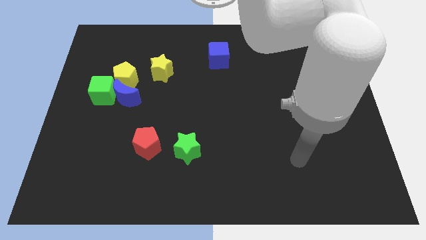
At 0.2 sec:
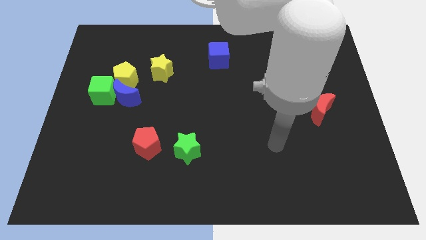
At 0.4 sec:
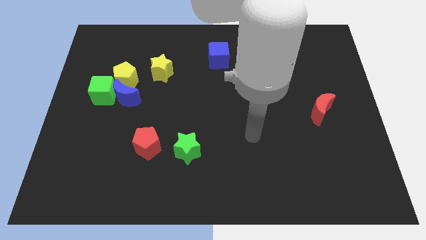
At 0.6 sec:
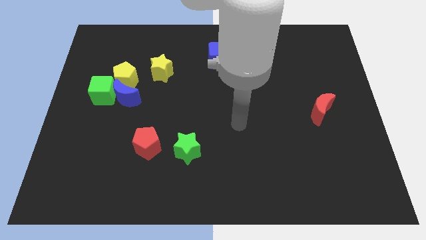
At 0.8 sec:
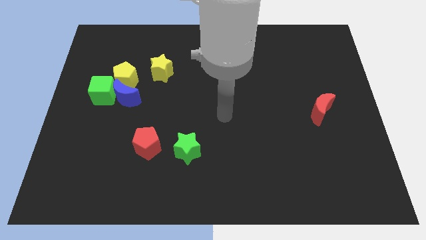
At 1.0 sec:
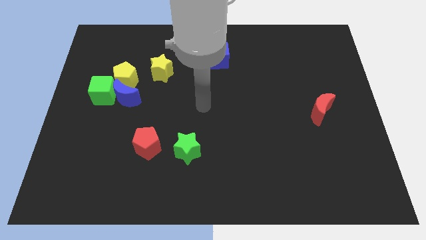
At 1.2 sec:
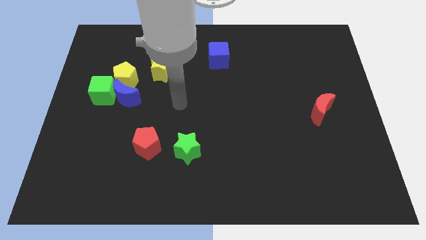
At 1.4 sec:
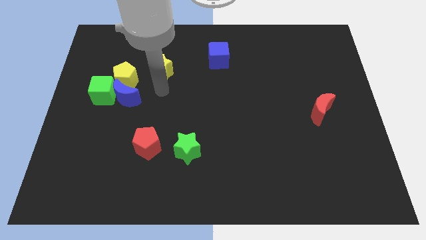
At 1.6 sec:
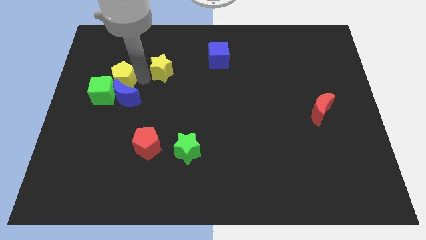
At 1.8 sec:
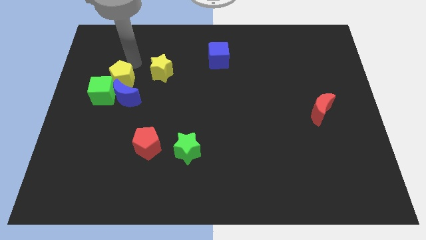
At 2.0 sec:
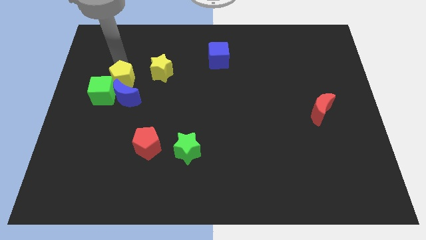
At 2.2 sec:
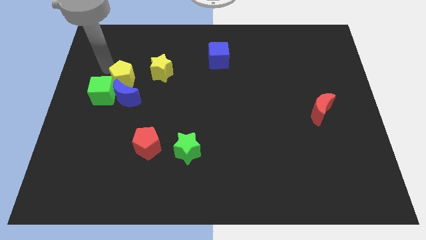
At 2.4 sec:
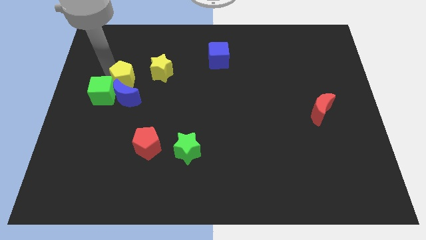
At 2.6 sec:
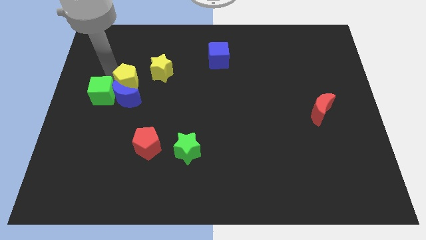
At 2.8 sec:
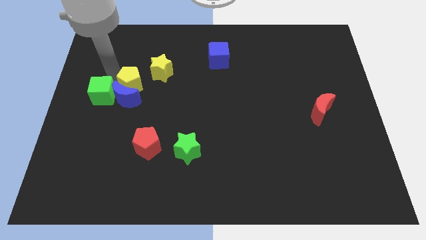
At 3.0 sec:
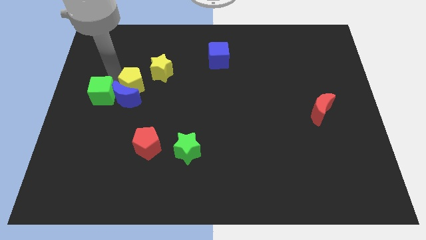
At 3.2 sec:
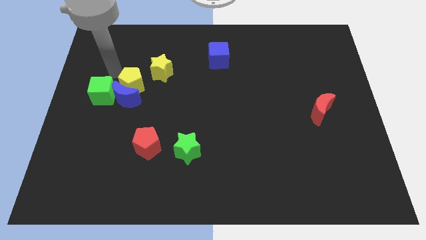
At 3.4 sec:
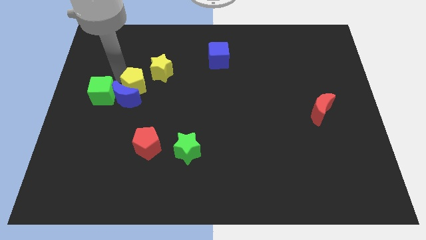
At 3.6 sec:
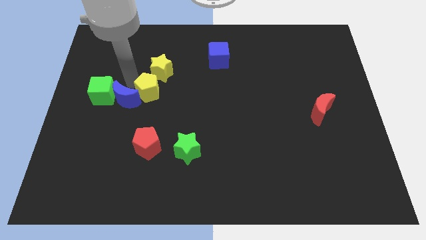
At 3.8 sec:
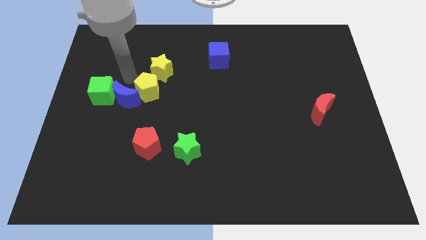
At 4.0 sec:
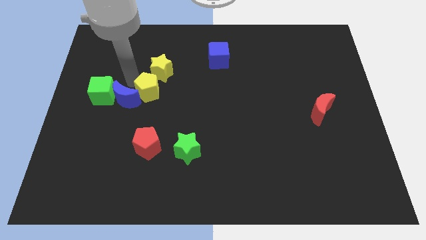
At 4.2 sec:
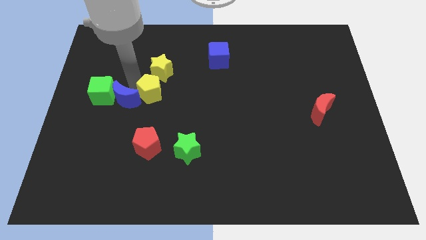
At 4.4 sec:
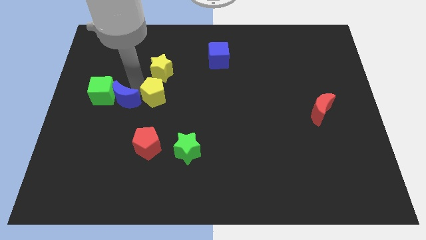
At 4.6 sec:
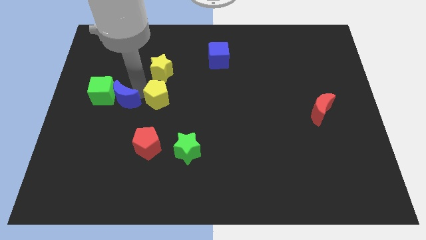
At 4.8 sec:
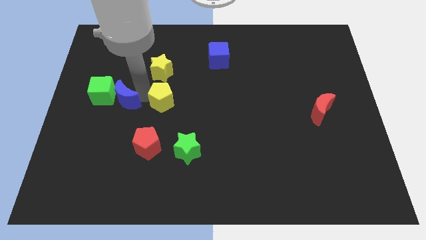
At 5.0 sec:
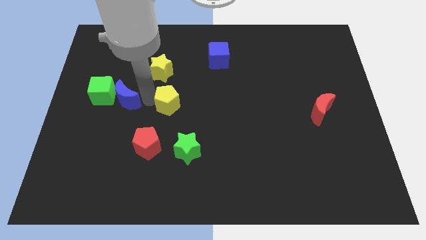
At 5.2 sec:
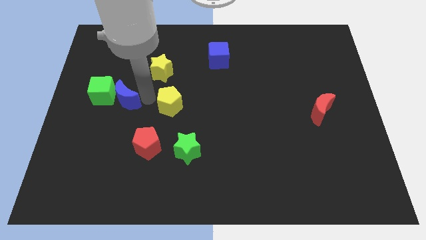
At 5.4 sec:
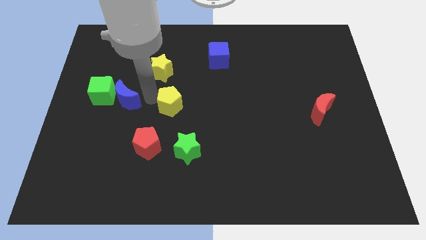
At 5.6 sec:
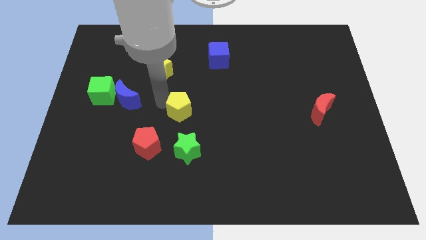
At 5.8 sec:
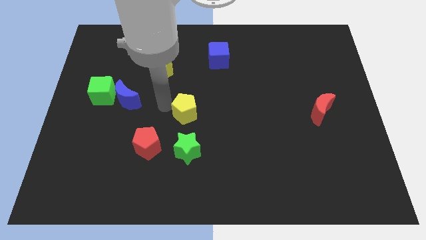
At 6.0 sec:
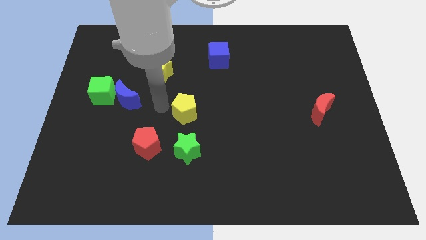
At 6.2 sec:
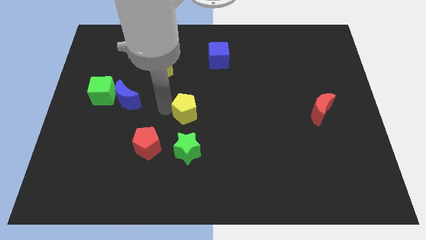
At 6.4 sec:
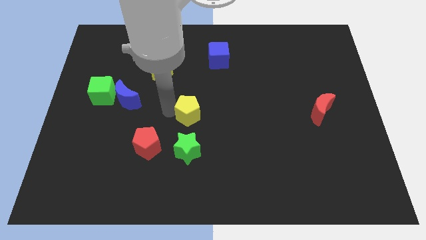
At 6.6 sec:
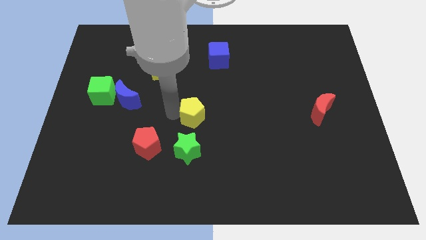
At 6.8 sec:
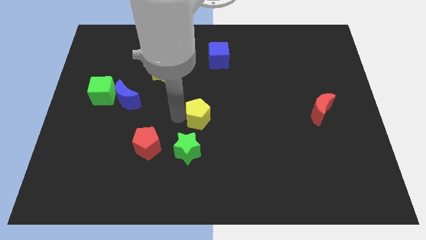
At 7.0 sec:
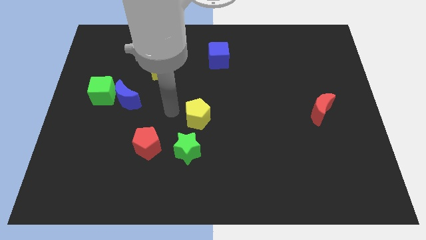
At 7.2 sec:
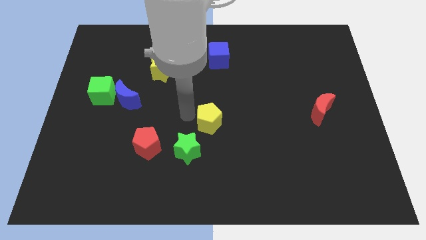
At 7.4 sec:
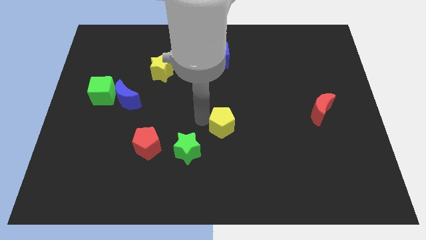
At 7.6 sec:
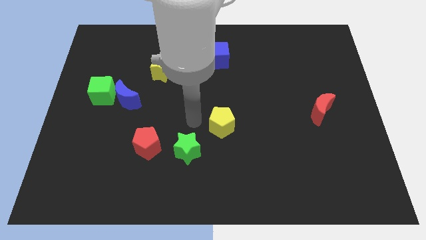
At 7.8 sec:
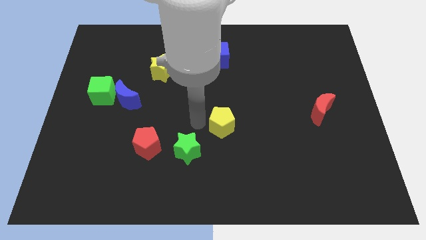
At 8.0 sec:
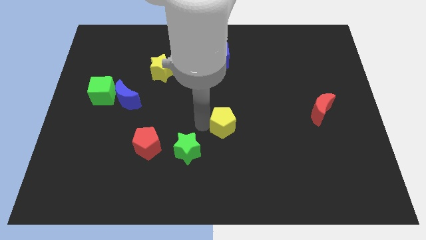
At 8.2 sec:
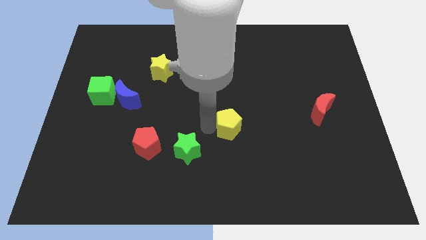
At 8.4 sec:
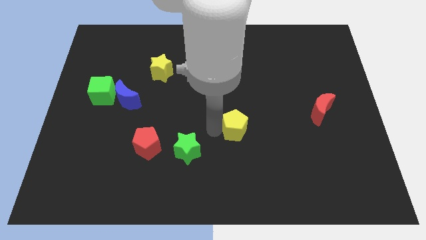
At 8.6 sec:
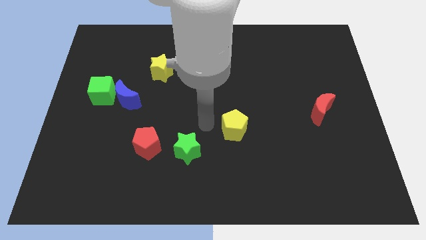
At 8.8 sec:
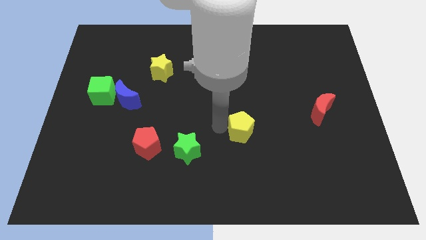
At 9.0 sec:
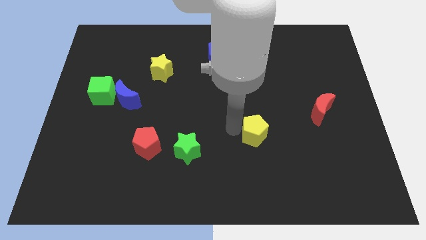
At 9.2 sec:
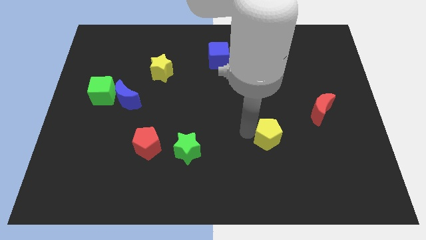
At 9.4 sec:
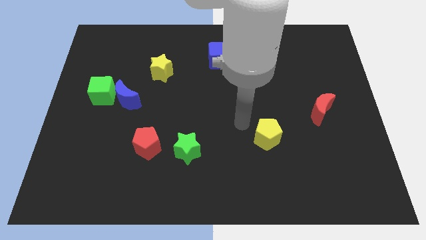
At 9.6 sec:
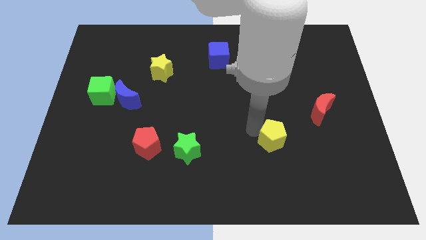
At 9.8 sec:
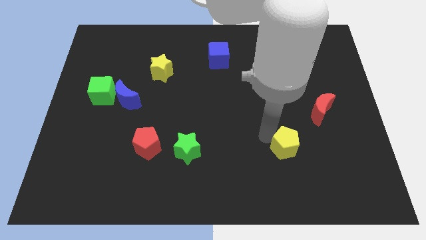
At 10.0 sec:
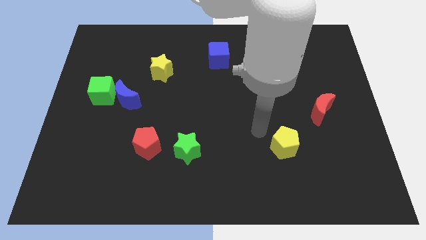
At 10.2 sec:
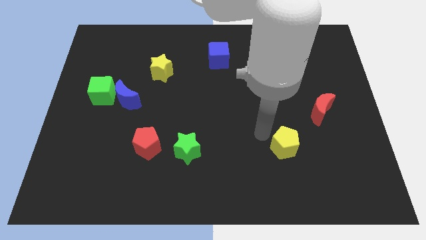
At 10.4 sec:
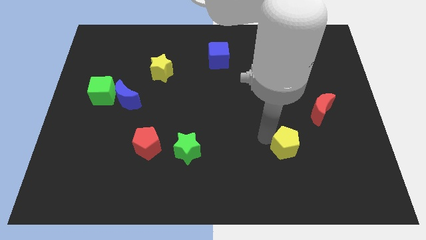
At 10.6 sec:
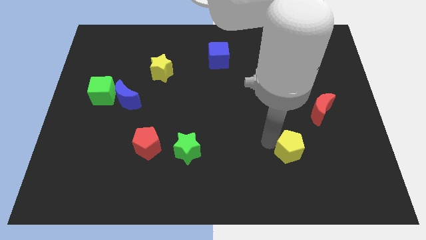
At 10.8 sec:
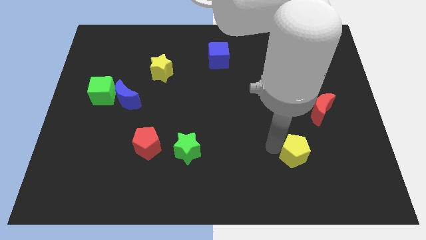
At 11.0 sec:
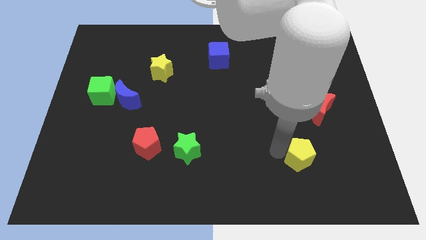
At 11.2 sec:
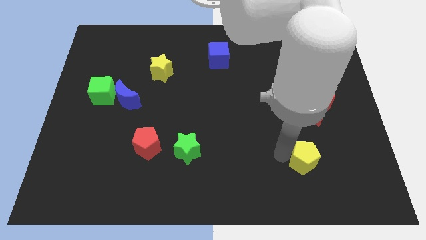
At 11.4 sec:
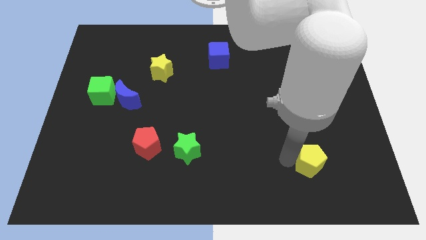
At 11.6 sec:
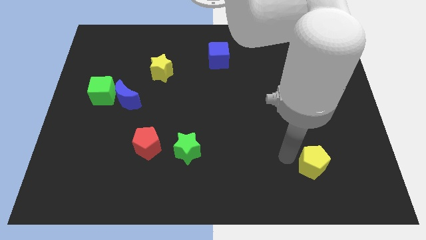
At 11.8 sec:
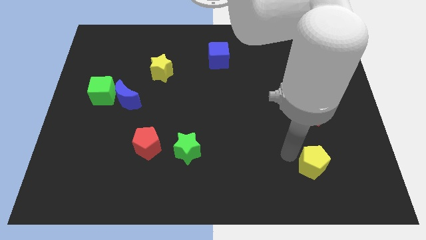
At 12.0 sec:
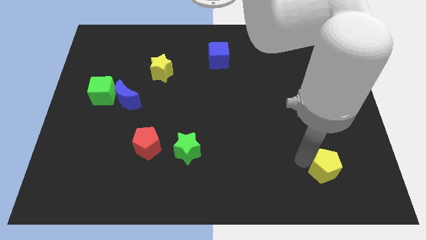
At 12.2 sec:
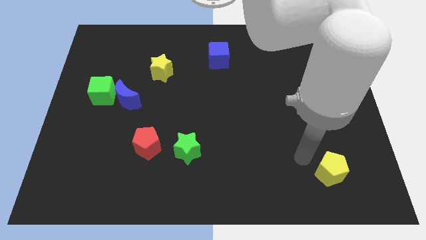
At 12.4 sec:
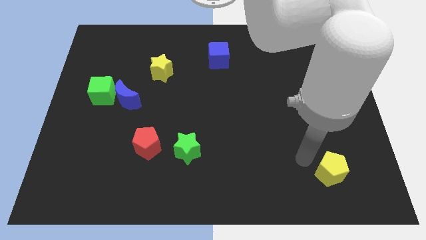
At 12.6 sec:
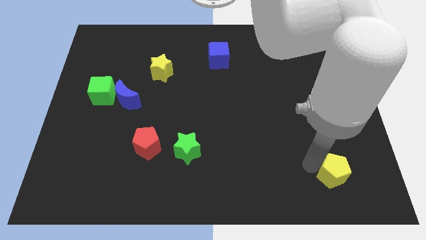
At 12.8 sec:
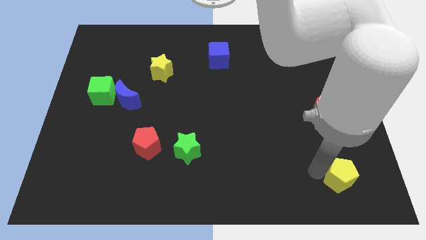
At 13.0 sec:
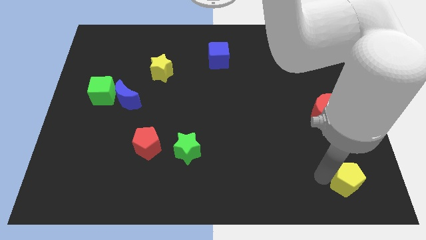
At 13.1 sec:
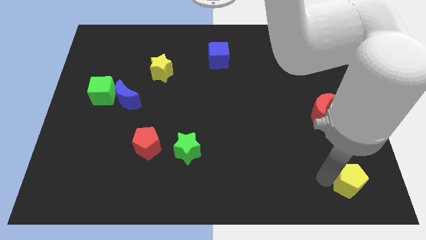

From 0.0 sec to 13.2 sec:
move the yellow pentagon to the bottom right of the board
